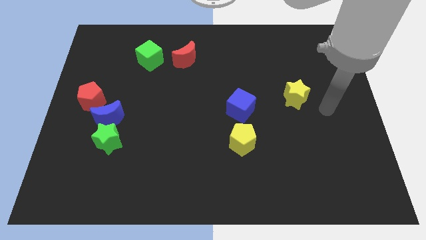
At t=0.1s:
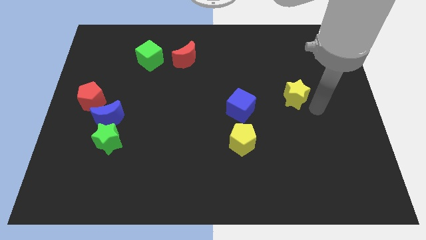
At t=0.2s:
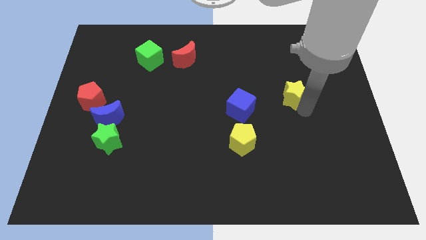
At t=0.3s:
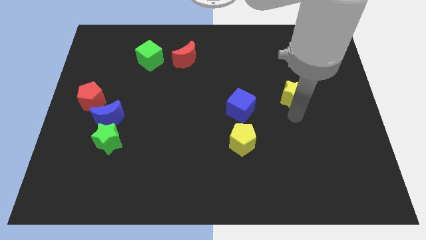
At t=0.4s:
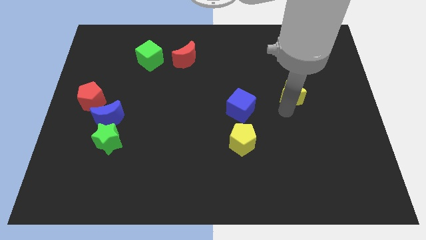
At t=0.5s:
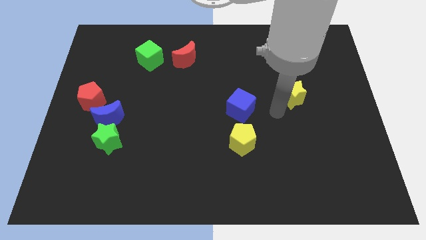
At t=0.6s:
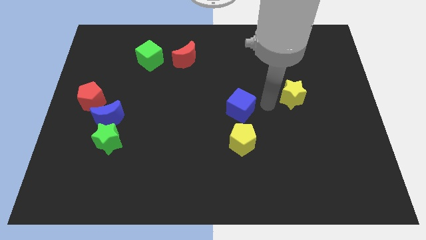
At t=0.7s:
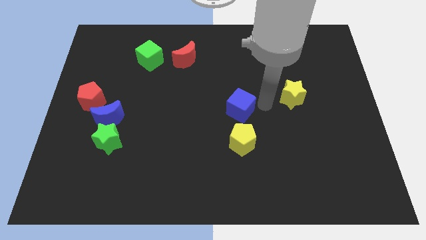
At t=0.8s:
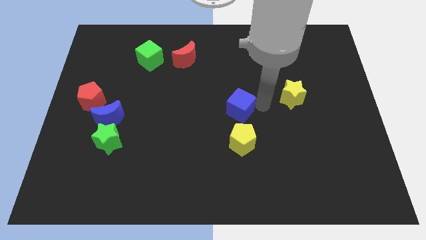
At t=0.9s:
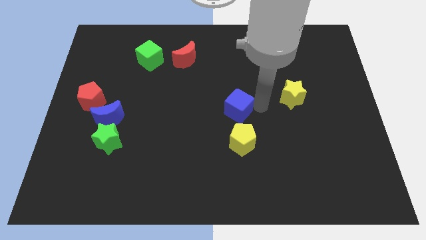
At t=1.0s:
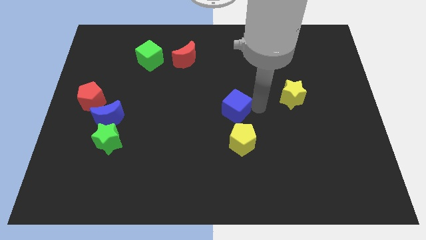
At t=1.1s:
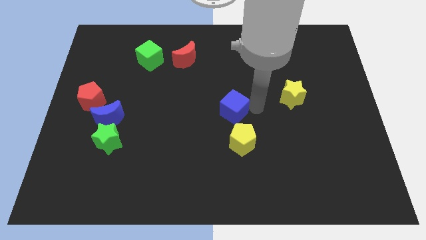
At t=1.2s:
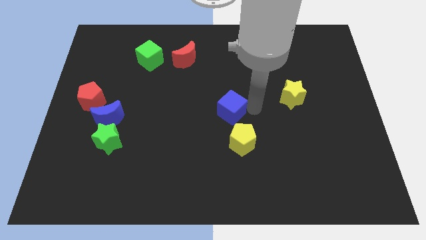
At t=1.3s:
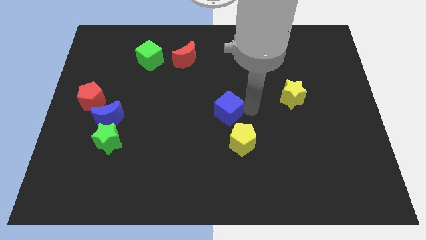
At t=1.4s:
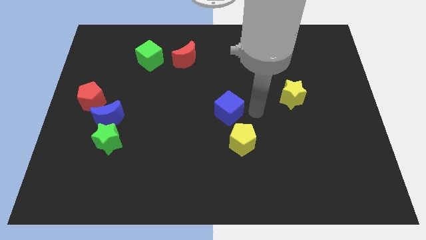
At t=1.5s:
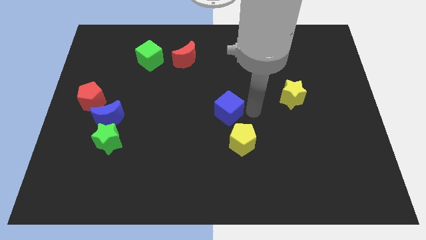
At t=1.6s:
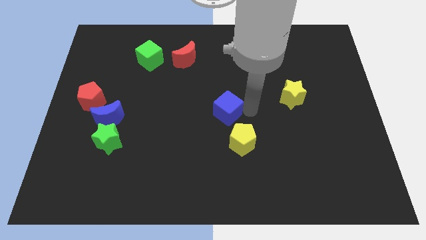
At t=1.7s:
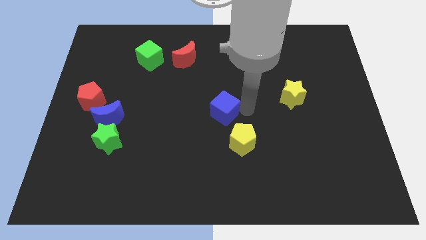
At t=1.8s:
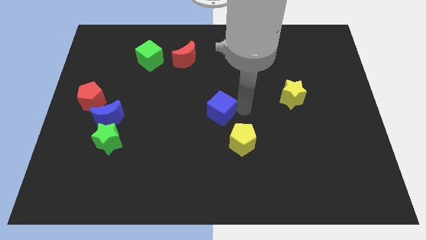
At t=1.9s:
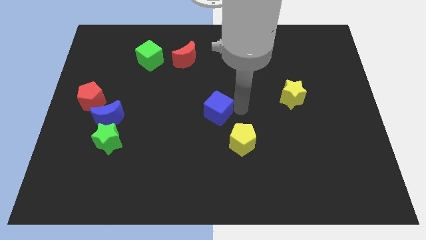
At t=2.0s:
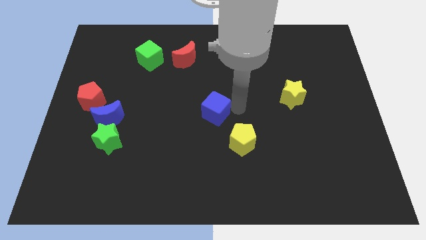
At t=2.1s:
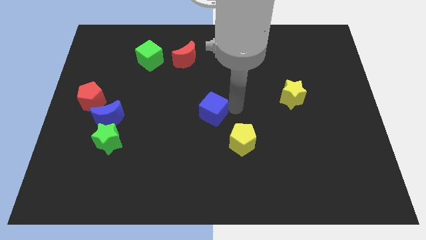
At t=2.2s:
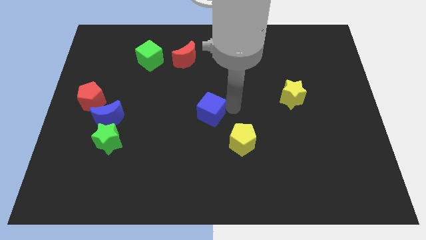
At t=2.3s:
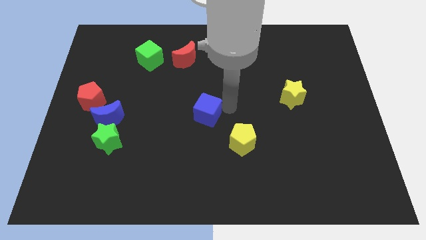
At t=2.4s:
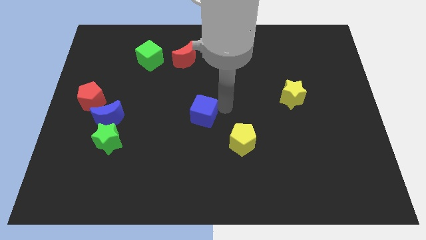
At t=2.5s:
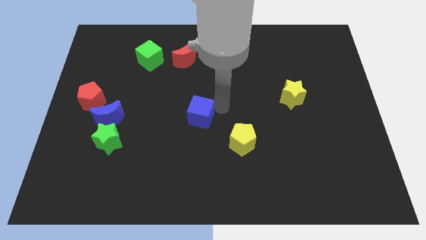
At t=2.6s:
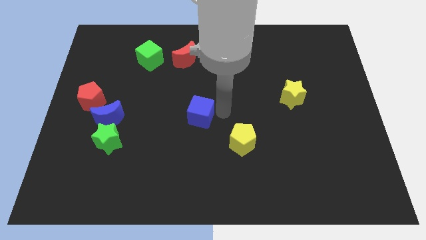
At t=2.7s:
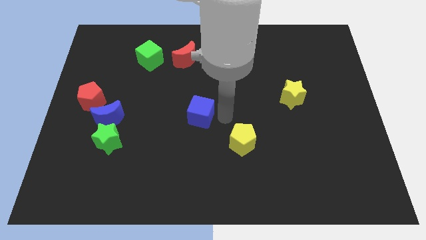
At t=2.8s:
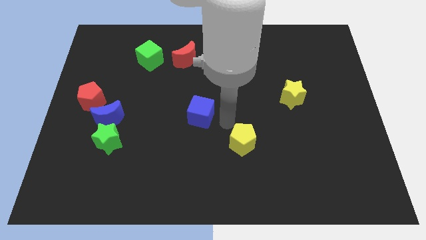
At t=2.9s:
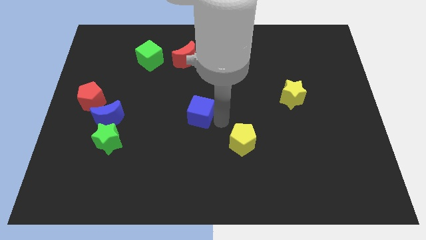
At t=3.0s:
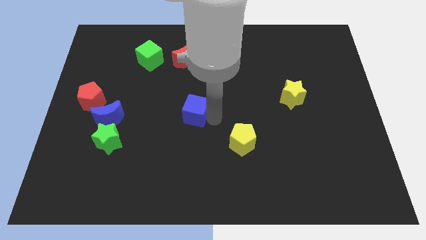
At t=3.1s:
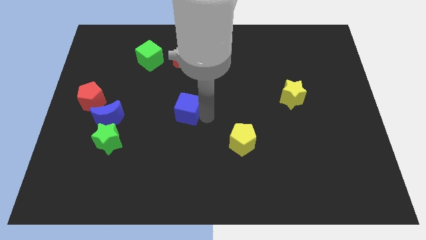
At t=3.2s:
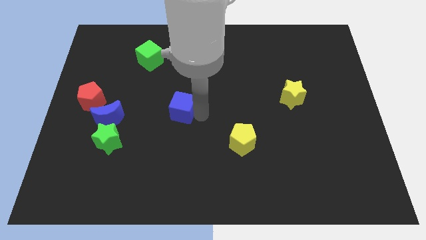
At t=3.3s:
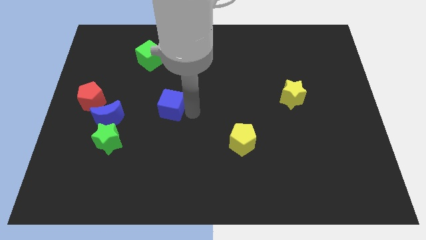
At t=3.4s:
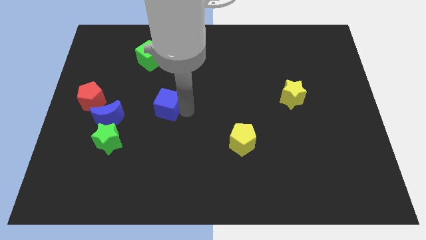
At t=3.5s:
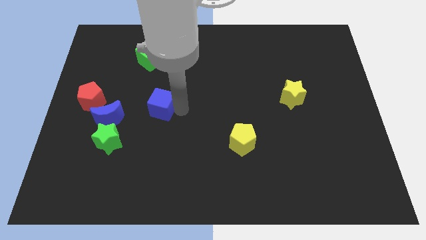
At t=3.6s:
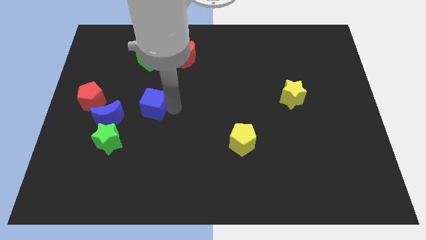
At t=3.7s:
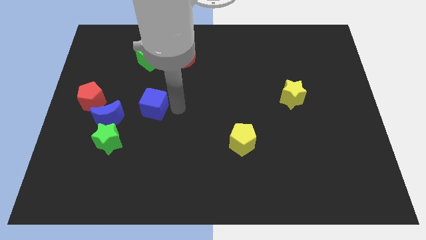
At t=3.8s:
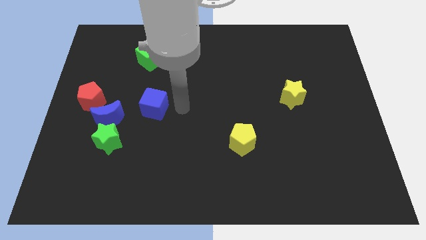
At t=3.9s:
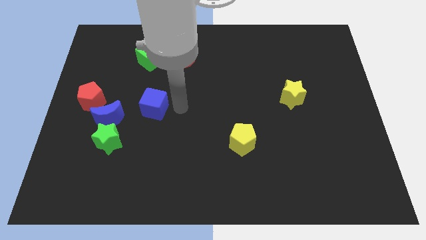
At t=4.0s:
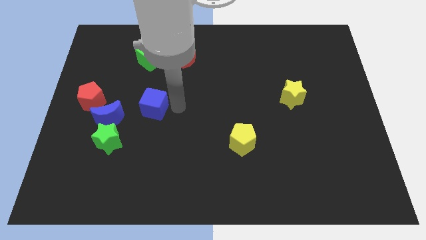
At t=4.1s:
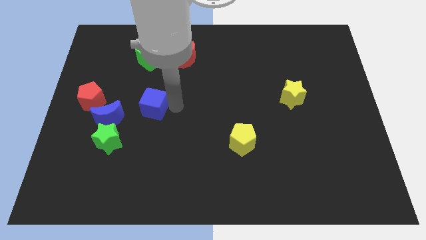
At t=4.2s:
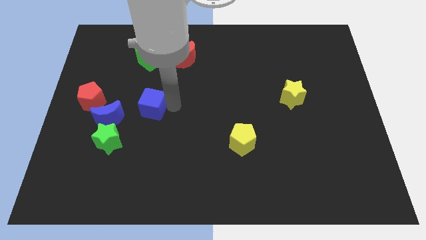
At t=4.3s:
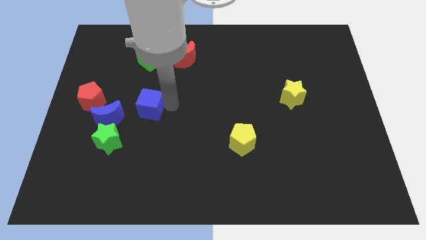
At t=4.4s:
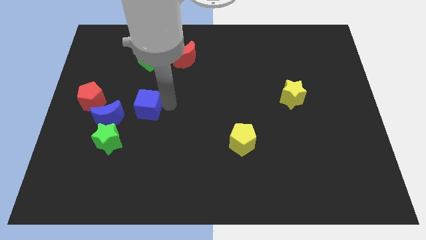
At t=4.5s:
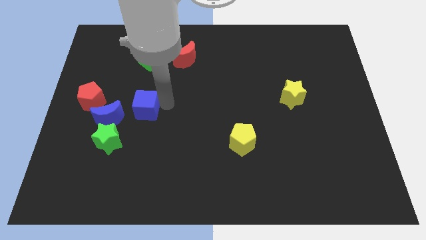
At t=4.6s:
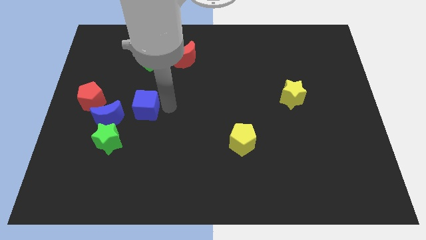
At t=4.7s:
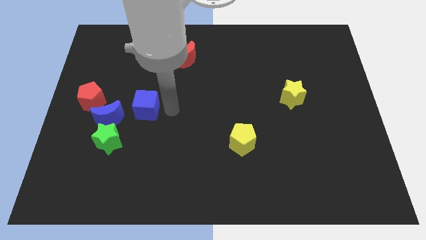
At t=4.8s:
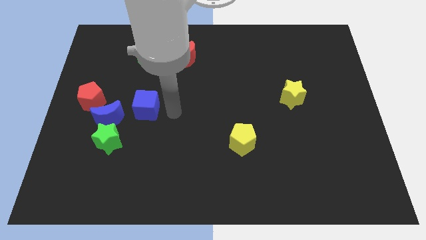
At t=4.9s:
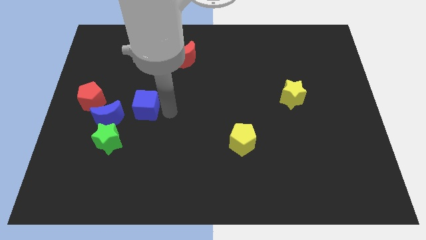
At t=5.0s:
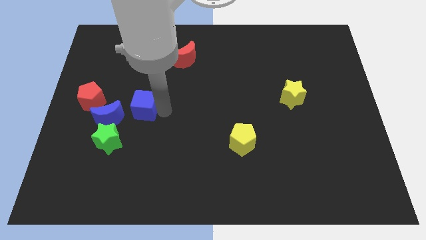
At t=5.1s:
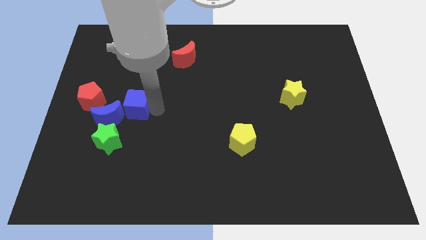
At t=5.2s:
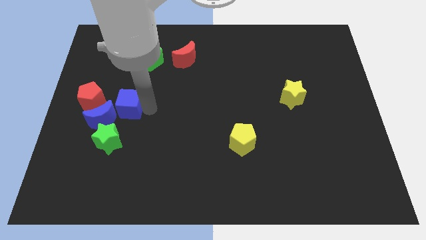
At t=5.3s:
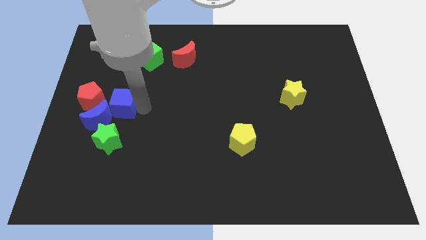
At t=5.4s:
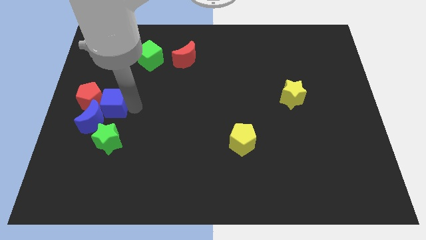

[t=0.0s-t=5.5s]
slide the blue cube next to the red pentagon

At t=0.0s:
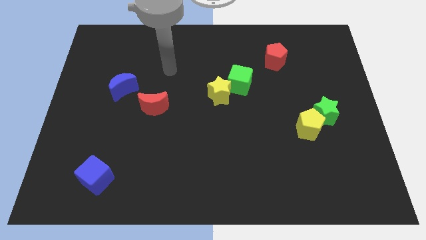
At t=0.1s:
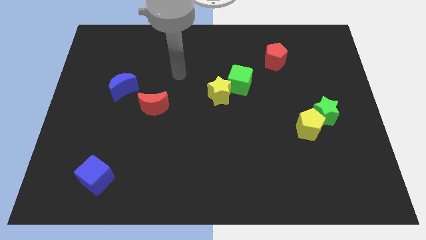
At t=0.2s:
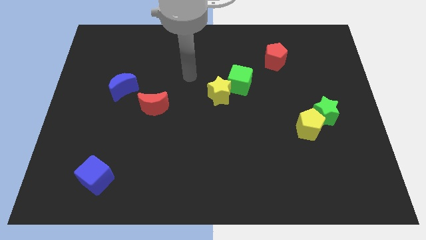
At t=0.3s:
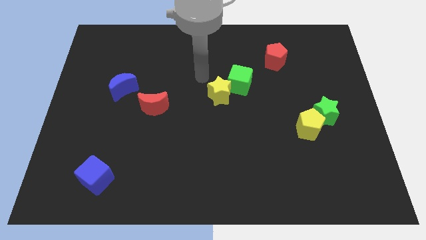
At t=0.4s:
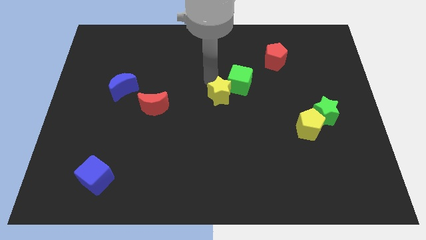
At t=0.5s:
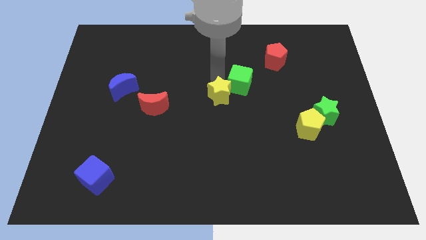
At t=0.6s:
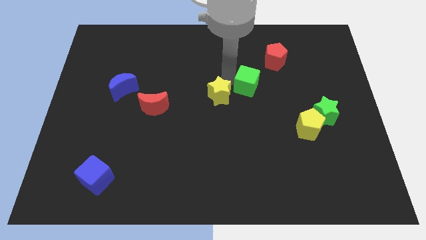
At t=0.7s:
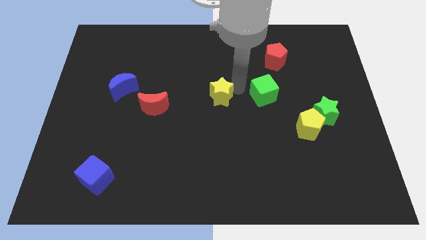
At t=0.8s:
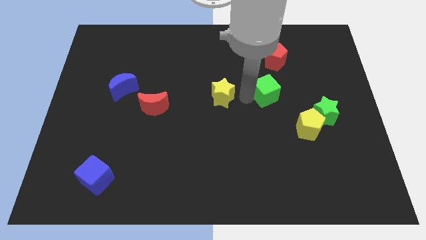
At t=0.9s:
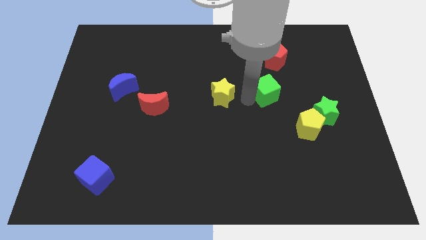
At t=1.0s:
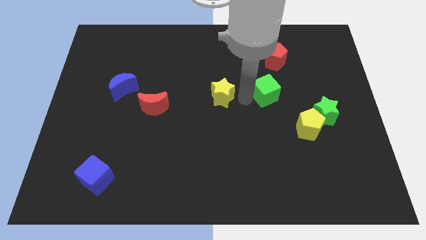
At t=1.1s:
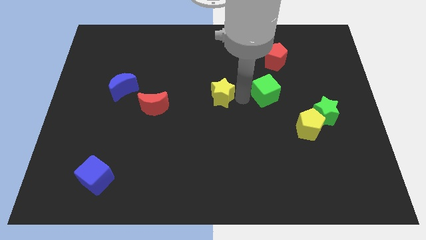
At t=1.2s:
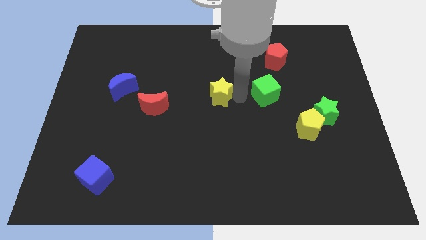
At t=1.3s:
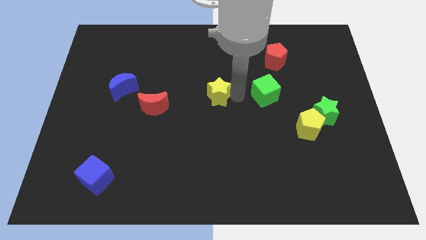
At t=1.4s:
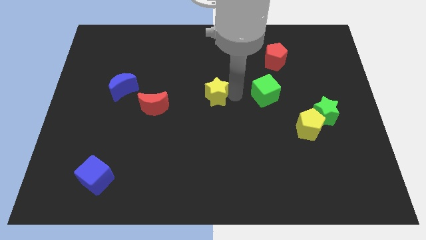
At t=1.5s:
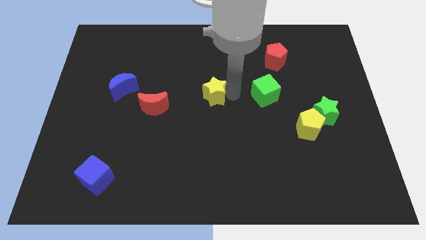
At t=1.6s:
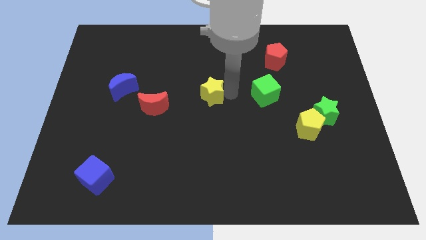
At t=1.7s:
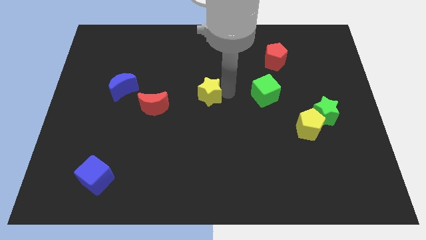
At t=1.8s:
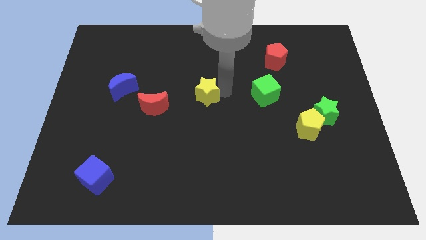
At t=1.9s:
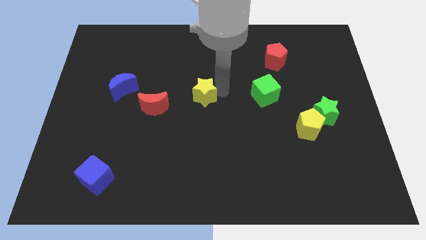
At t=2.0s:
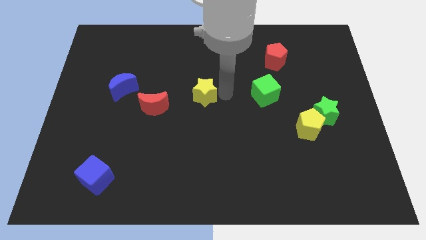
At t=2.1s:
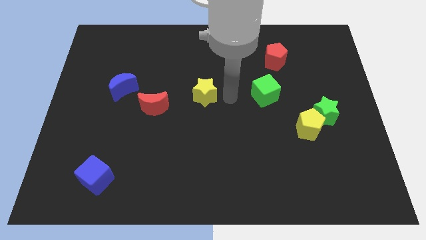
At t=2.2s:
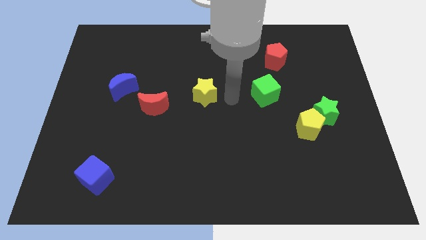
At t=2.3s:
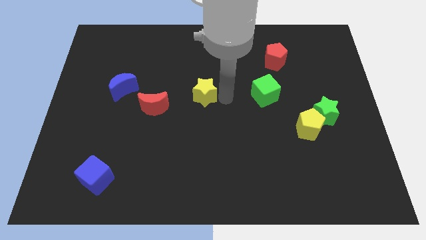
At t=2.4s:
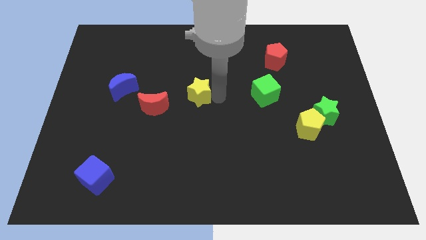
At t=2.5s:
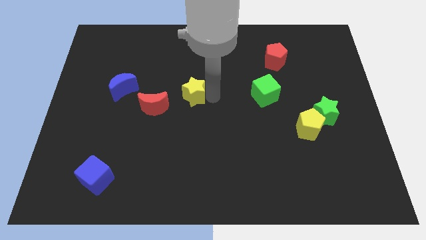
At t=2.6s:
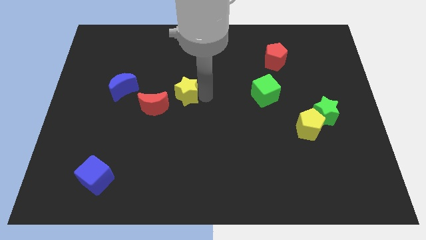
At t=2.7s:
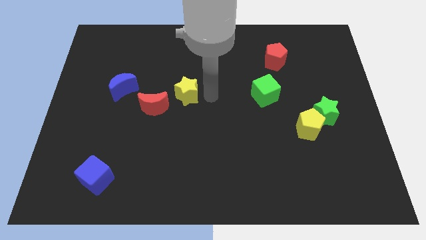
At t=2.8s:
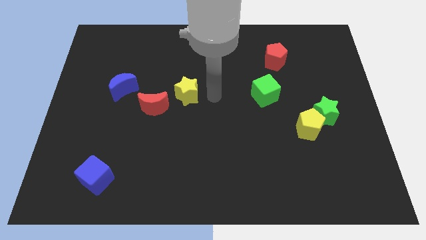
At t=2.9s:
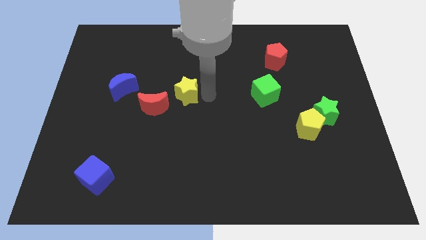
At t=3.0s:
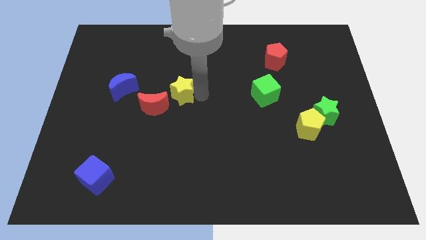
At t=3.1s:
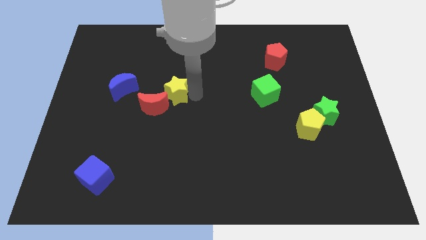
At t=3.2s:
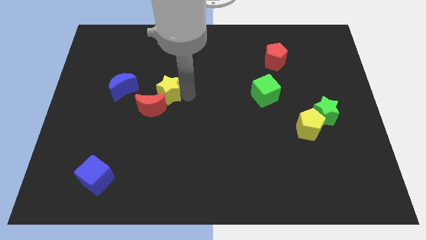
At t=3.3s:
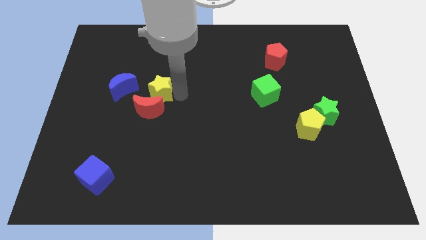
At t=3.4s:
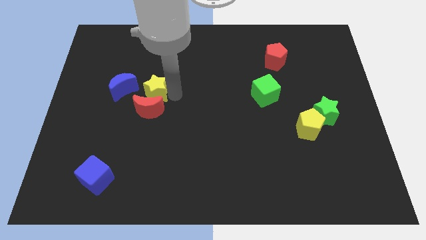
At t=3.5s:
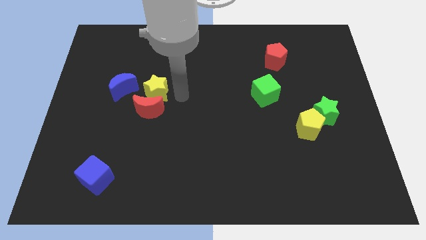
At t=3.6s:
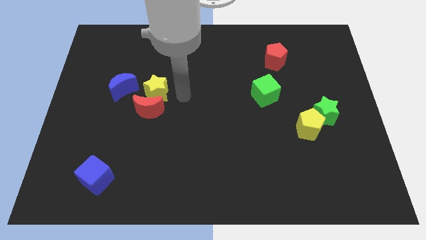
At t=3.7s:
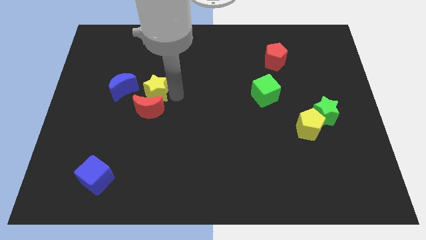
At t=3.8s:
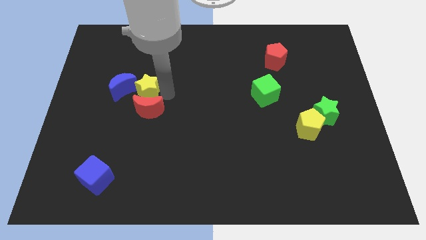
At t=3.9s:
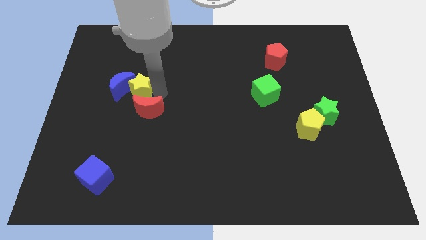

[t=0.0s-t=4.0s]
put the yellow star close to the blue moon
